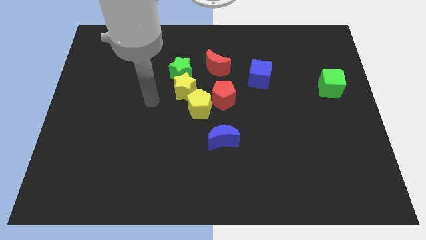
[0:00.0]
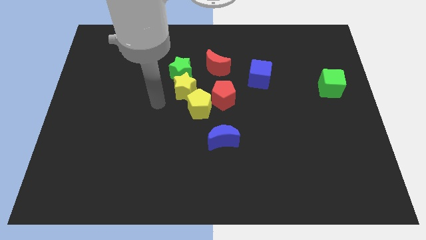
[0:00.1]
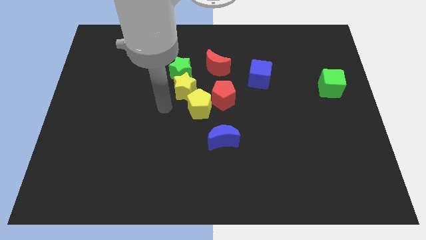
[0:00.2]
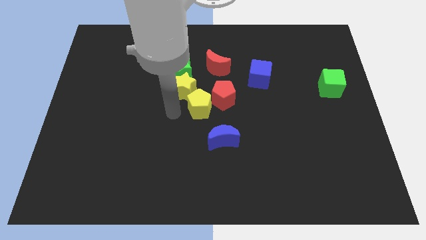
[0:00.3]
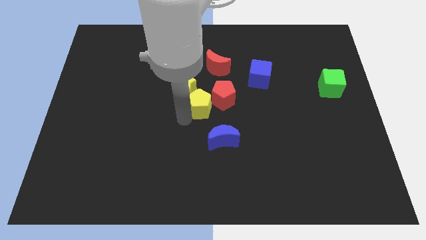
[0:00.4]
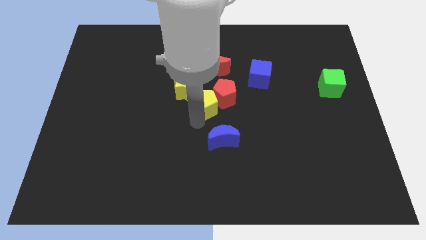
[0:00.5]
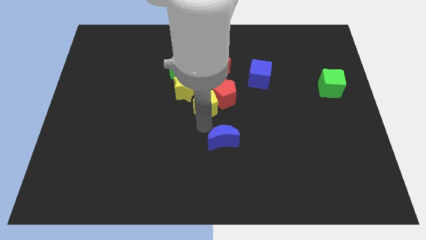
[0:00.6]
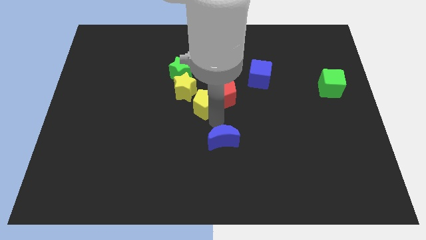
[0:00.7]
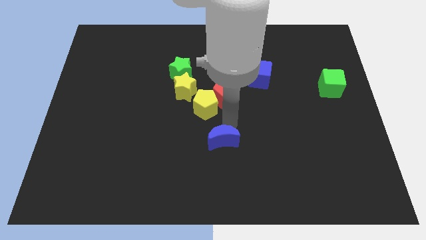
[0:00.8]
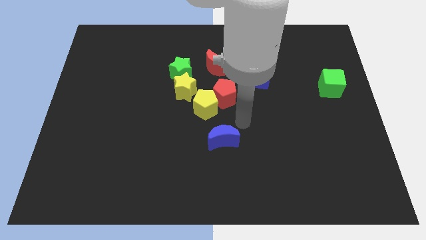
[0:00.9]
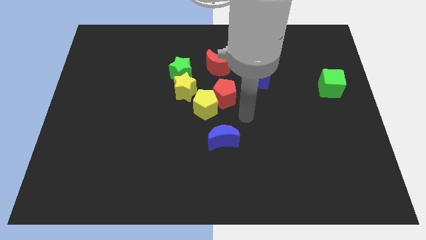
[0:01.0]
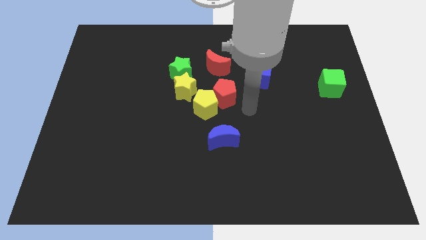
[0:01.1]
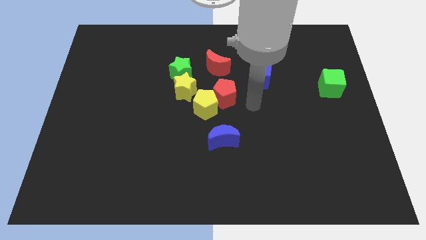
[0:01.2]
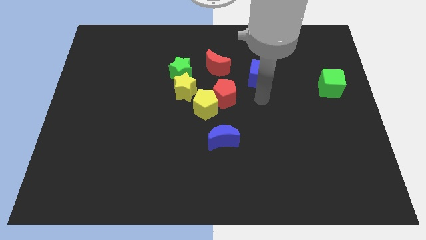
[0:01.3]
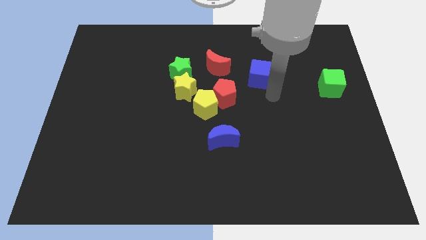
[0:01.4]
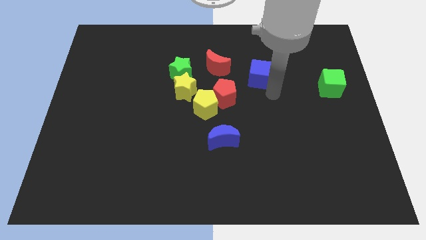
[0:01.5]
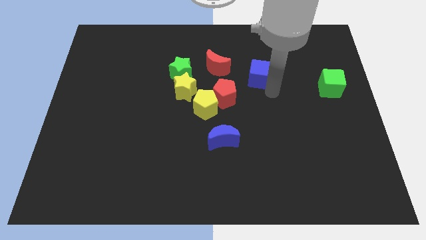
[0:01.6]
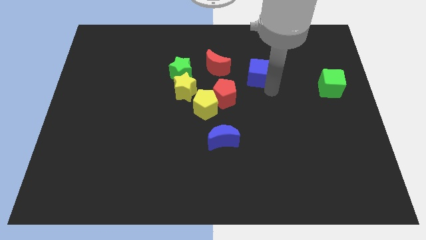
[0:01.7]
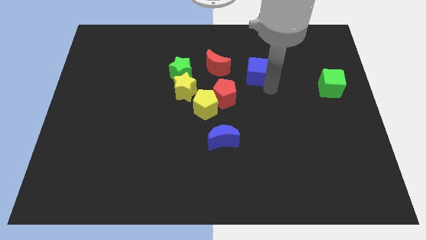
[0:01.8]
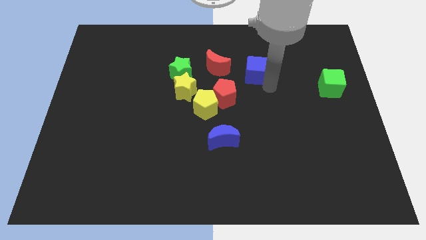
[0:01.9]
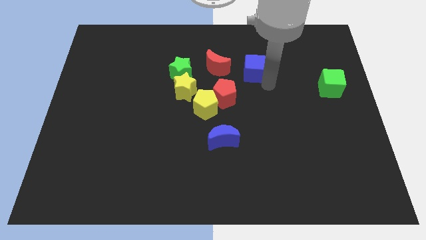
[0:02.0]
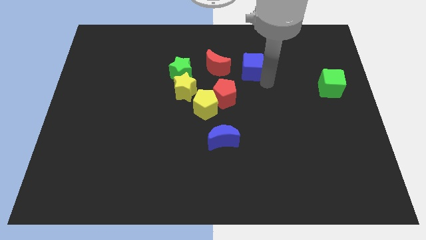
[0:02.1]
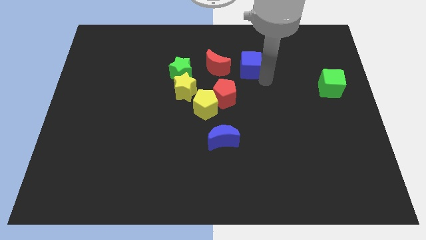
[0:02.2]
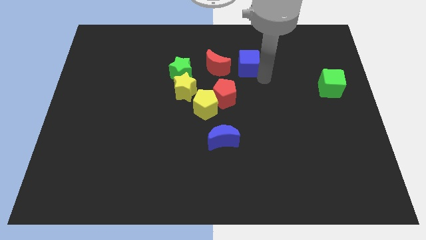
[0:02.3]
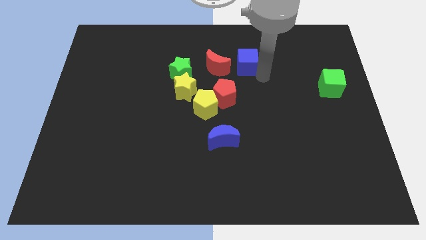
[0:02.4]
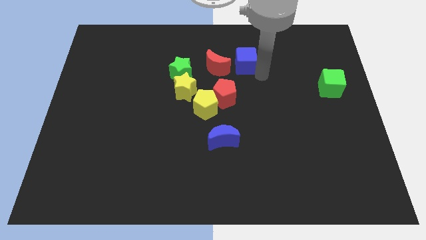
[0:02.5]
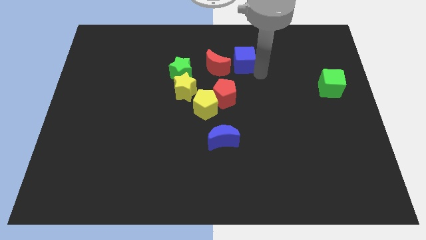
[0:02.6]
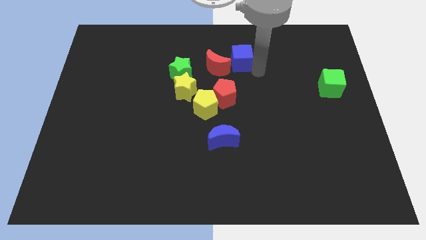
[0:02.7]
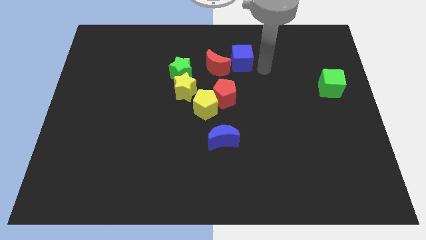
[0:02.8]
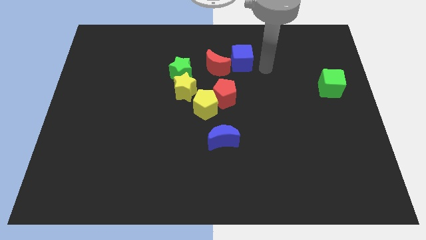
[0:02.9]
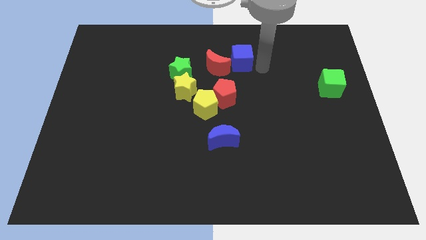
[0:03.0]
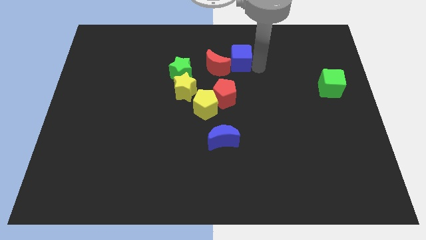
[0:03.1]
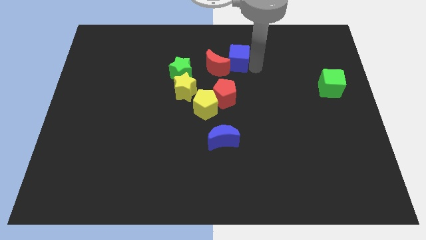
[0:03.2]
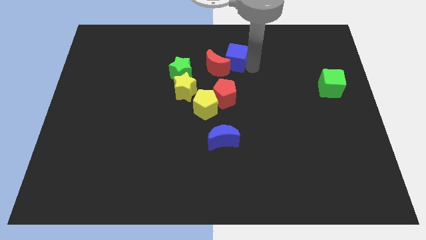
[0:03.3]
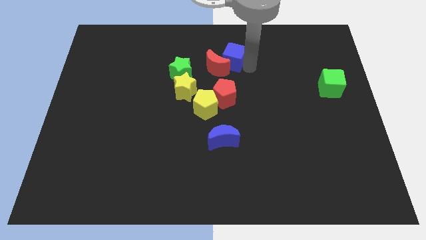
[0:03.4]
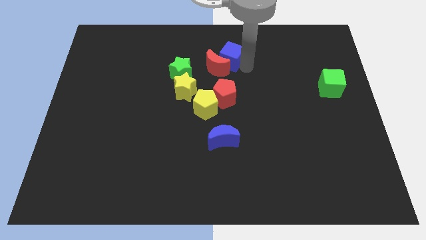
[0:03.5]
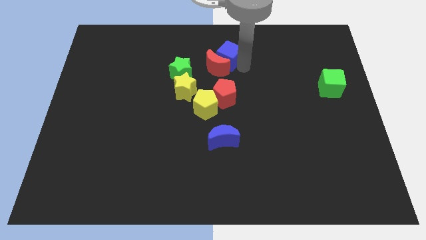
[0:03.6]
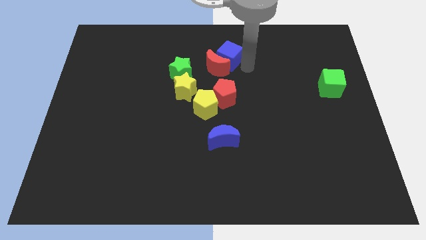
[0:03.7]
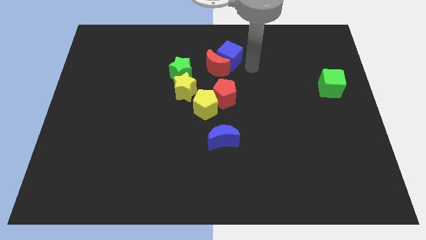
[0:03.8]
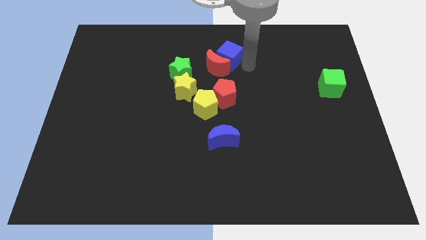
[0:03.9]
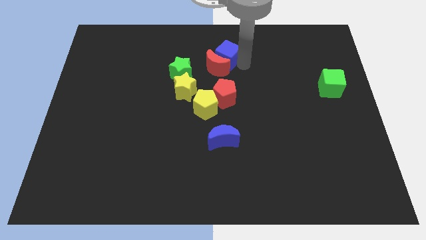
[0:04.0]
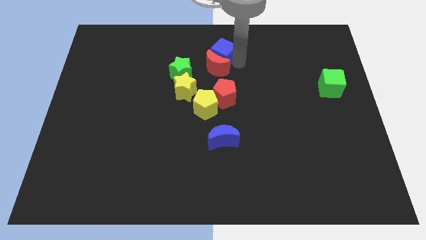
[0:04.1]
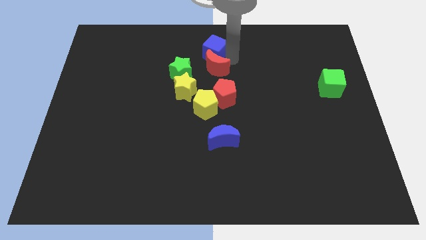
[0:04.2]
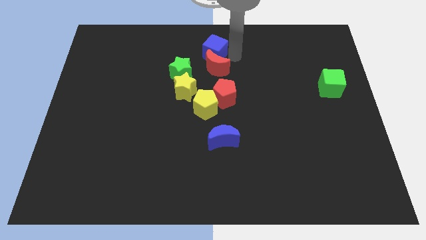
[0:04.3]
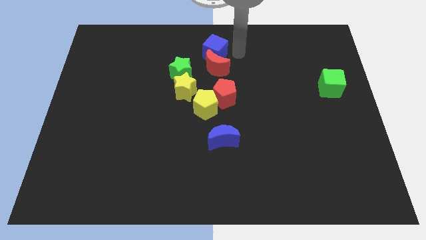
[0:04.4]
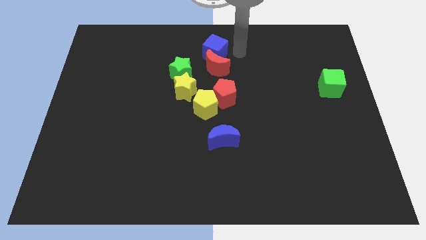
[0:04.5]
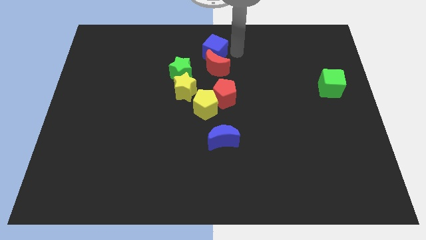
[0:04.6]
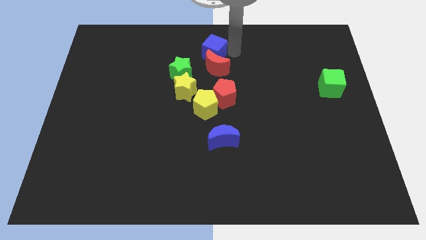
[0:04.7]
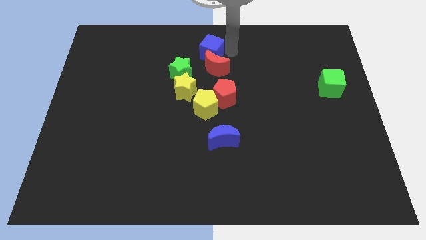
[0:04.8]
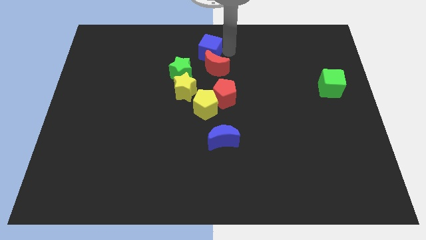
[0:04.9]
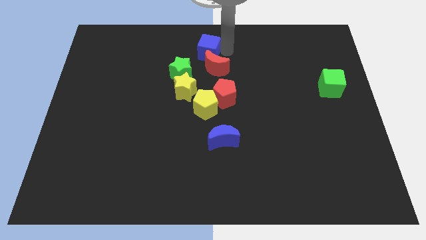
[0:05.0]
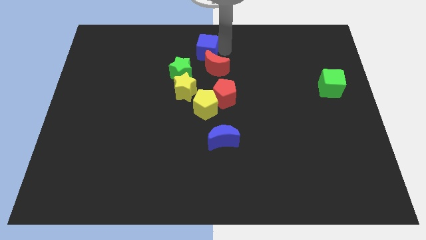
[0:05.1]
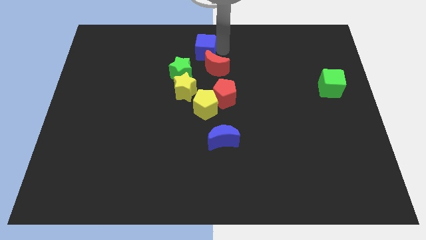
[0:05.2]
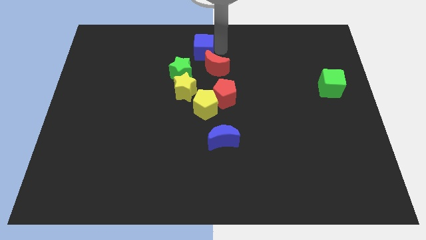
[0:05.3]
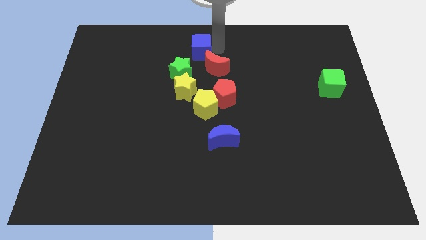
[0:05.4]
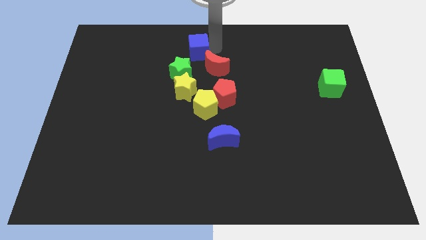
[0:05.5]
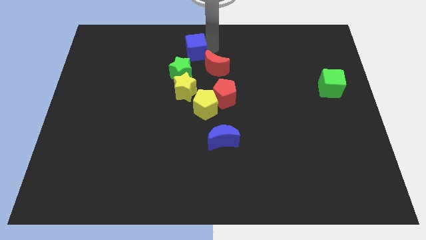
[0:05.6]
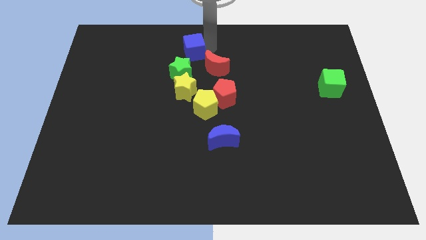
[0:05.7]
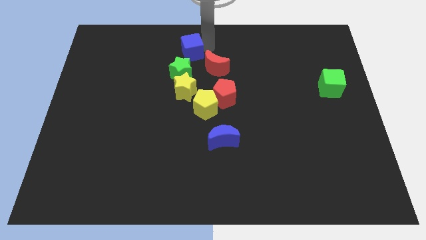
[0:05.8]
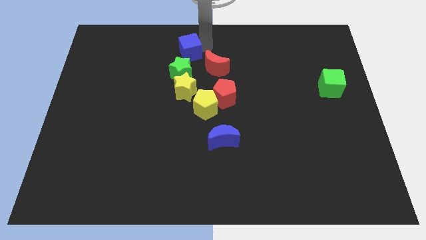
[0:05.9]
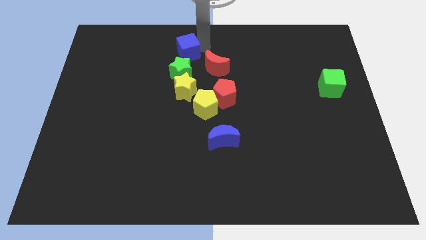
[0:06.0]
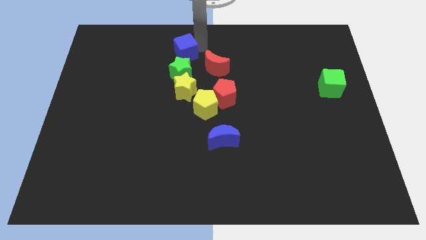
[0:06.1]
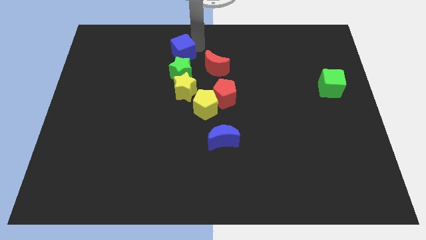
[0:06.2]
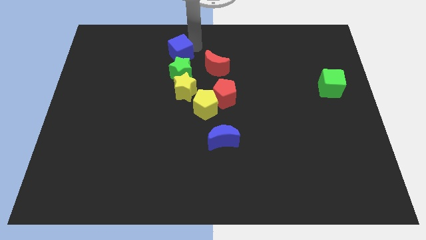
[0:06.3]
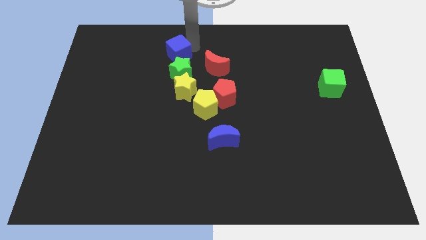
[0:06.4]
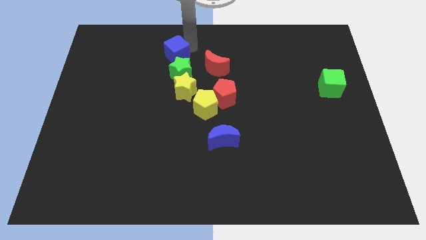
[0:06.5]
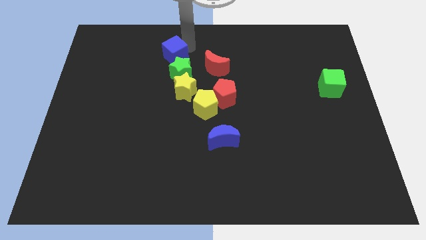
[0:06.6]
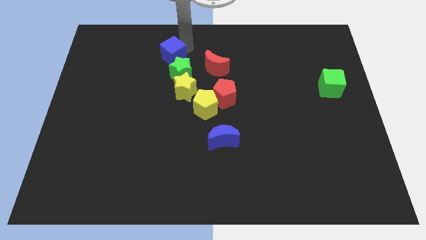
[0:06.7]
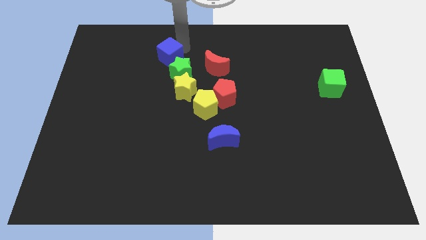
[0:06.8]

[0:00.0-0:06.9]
move the blue cube to the left

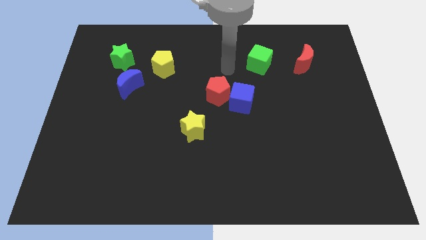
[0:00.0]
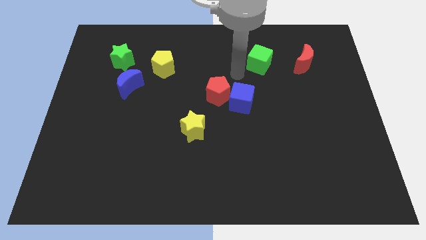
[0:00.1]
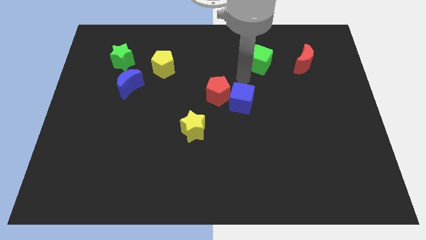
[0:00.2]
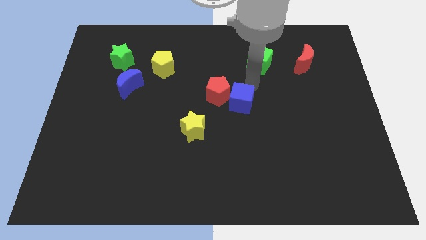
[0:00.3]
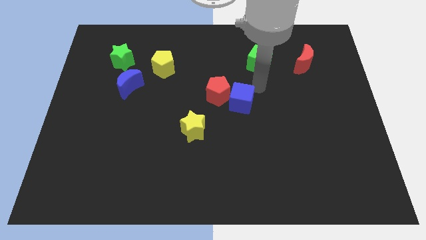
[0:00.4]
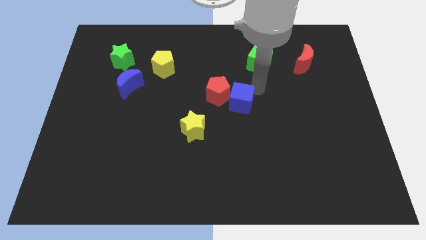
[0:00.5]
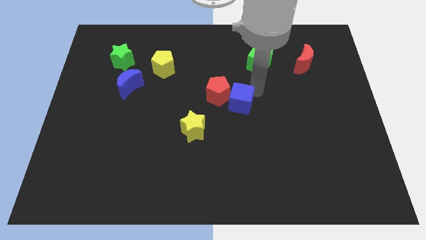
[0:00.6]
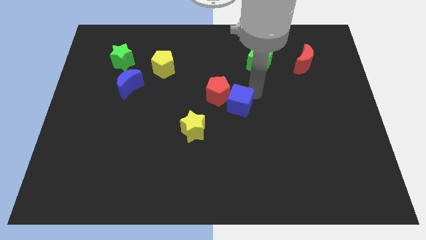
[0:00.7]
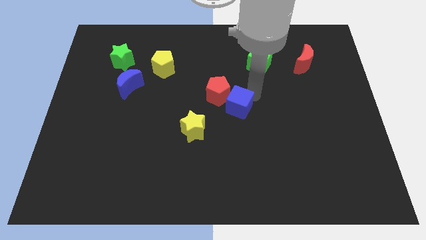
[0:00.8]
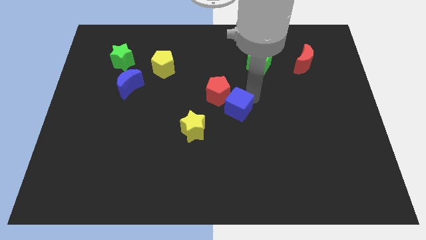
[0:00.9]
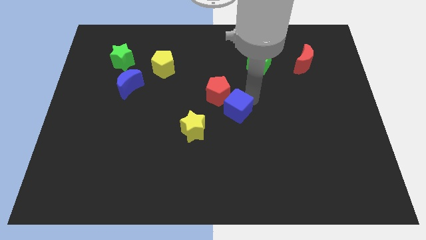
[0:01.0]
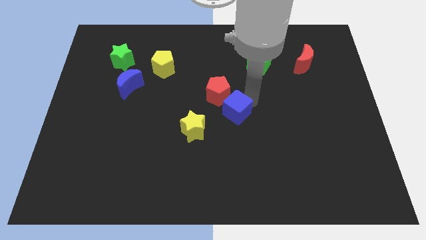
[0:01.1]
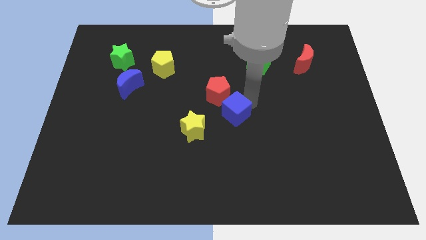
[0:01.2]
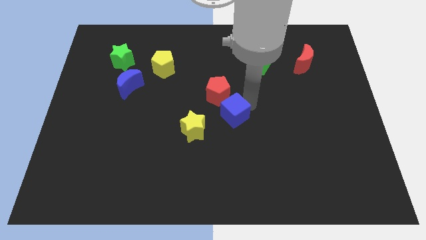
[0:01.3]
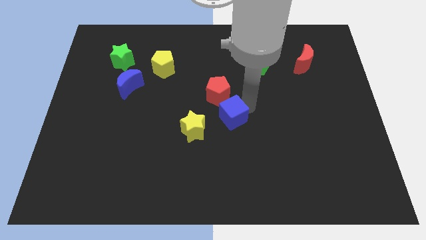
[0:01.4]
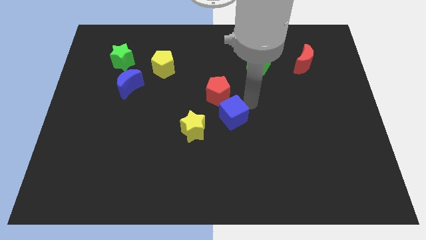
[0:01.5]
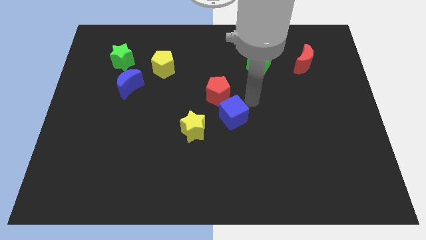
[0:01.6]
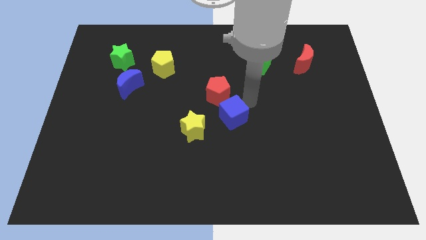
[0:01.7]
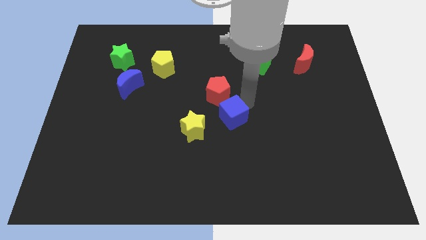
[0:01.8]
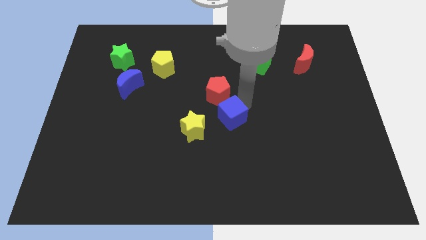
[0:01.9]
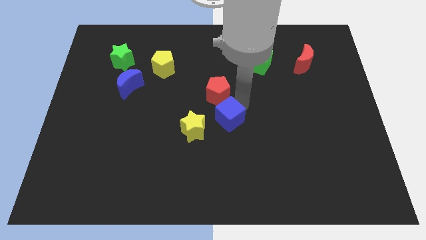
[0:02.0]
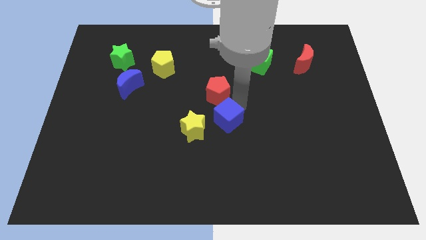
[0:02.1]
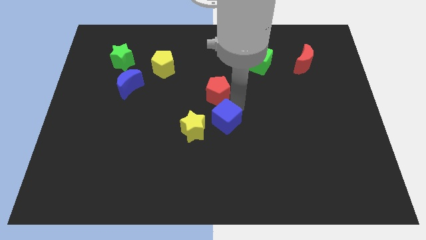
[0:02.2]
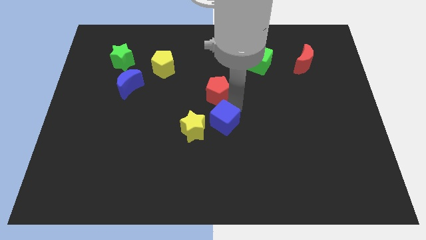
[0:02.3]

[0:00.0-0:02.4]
push the blue cube a little down and left diagonally
